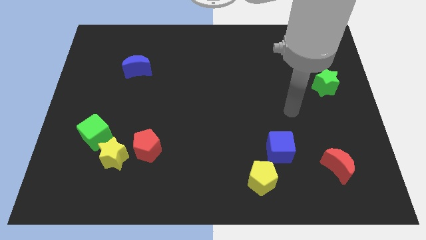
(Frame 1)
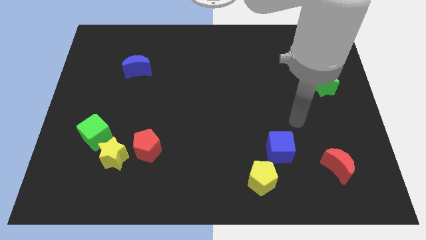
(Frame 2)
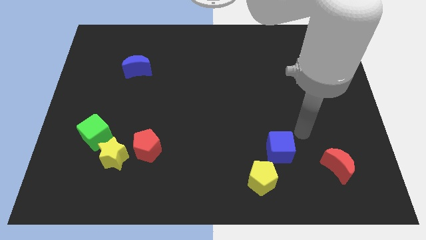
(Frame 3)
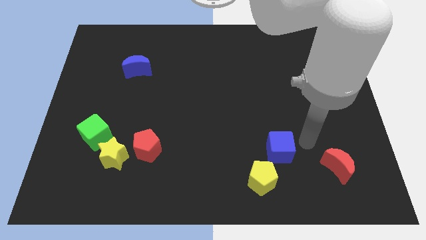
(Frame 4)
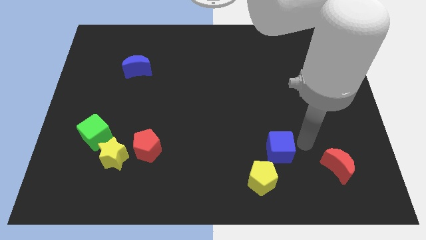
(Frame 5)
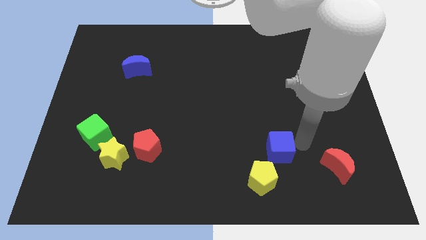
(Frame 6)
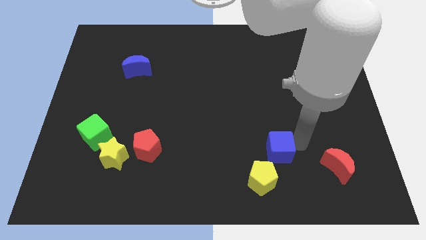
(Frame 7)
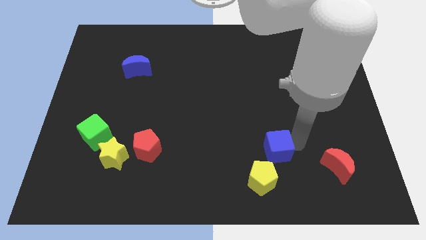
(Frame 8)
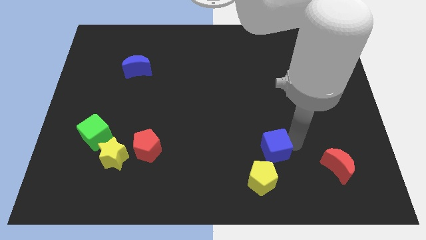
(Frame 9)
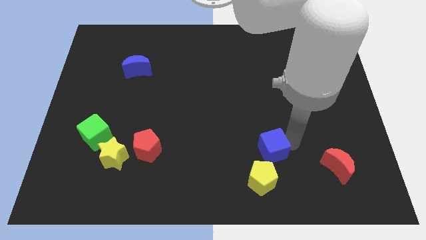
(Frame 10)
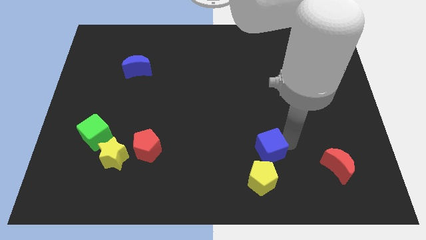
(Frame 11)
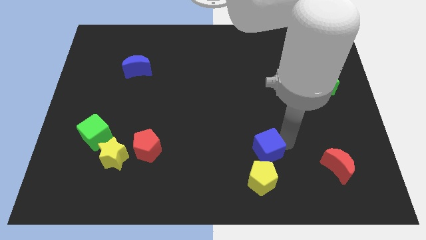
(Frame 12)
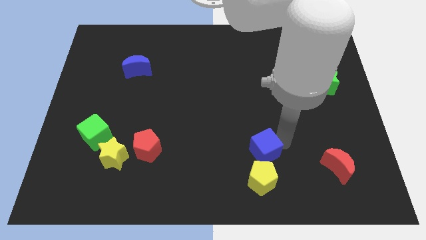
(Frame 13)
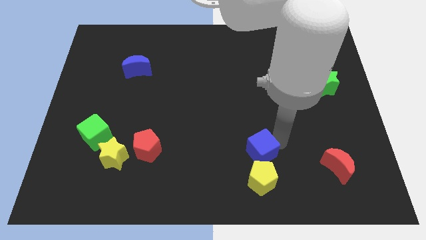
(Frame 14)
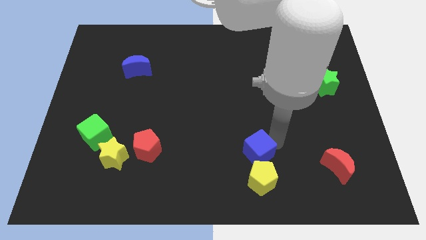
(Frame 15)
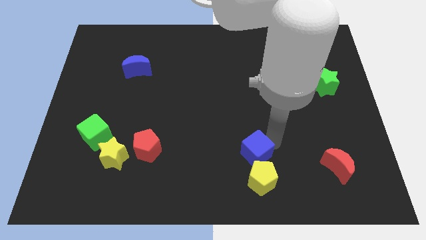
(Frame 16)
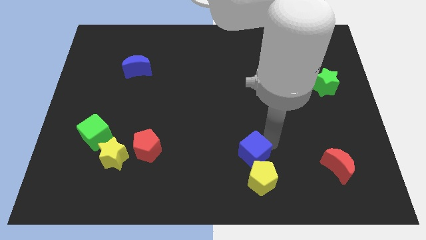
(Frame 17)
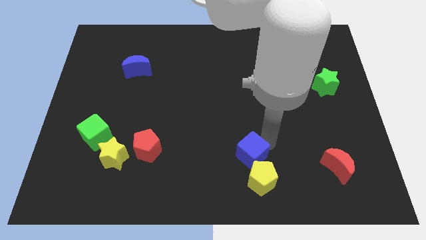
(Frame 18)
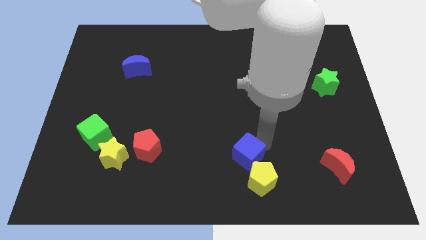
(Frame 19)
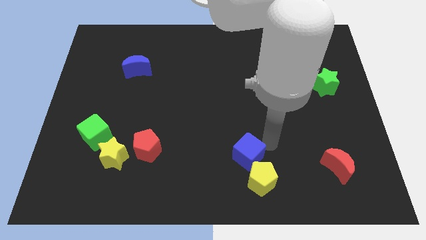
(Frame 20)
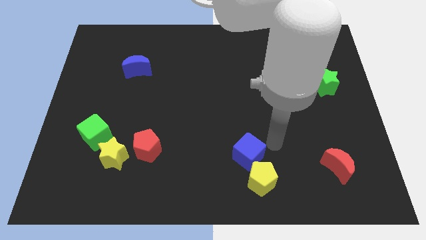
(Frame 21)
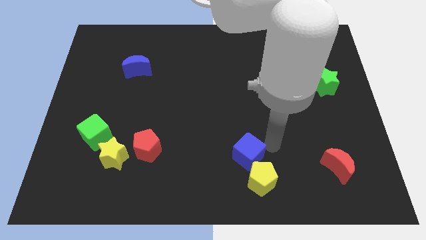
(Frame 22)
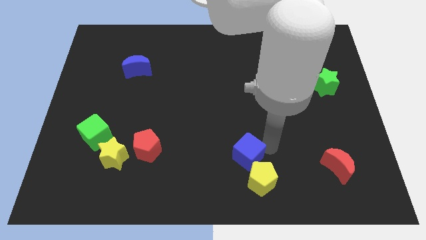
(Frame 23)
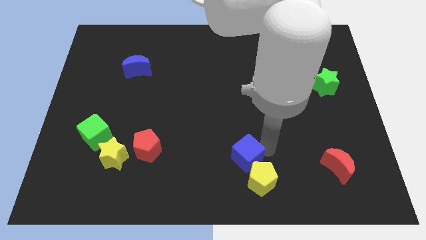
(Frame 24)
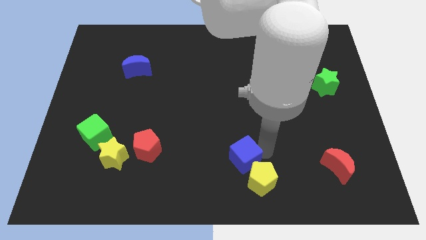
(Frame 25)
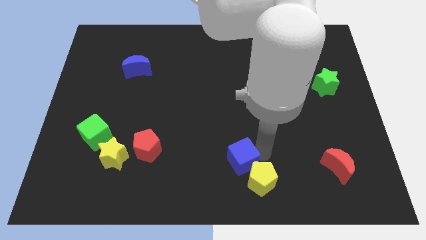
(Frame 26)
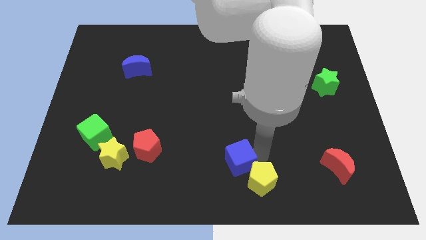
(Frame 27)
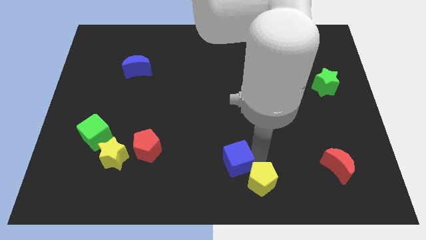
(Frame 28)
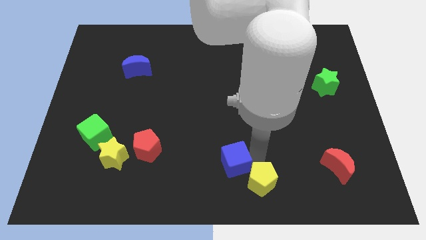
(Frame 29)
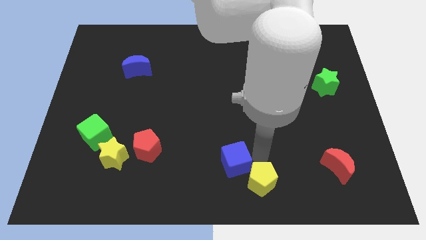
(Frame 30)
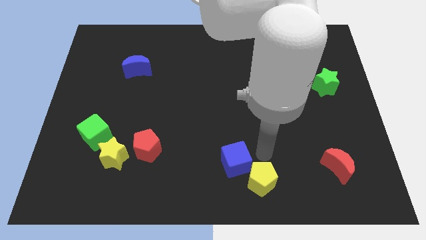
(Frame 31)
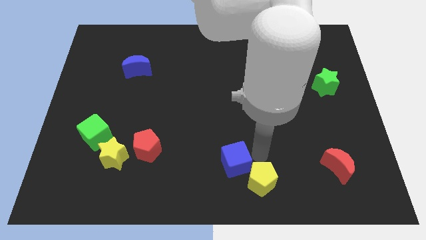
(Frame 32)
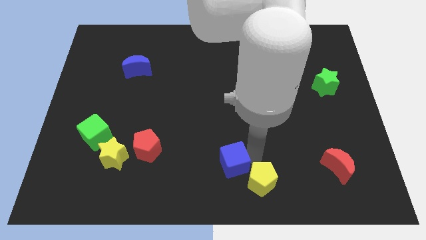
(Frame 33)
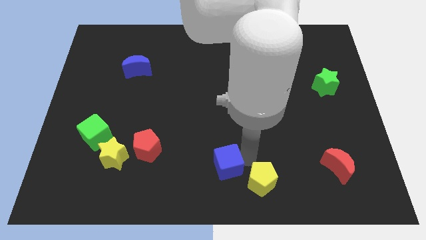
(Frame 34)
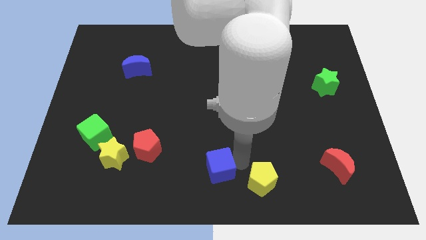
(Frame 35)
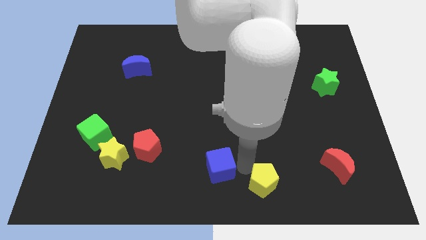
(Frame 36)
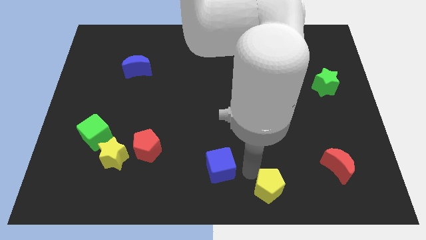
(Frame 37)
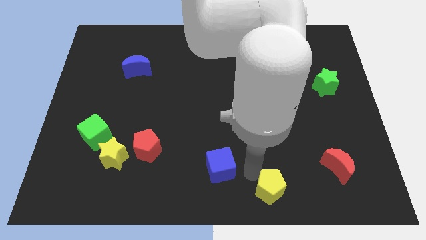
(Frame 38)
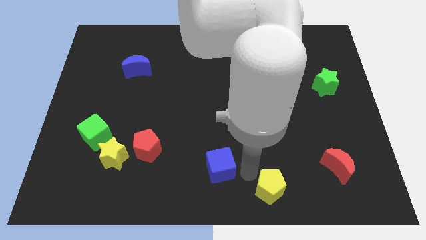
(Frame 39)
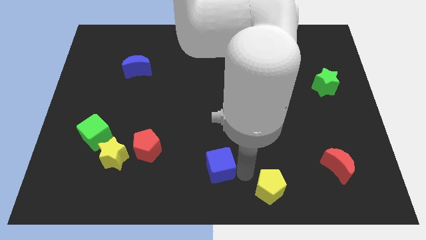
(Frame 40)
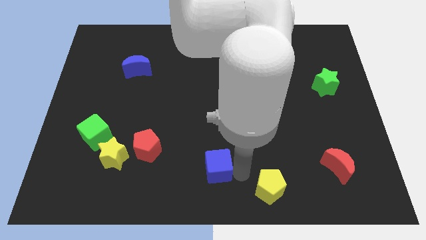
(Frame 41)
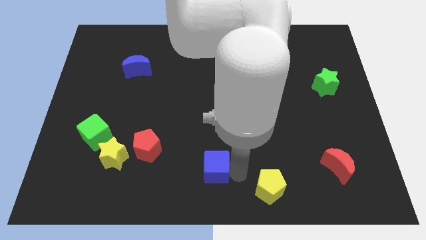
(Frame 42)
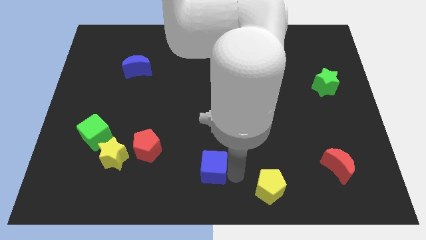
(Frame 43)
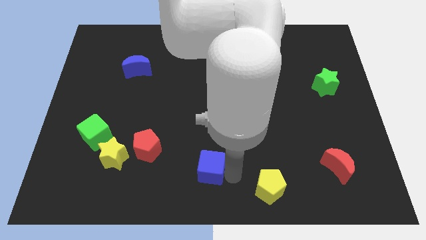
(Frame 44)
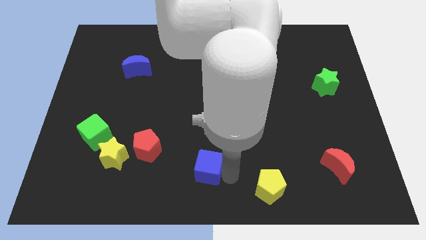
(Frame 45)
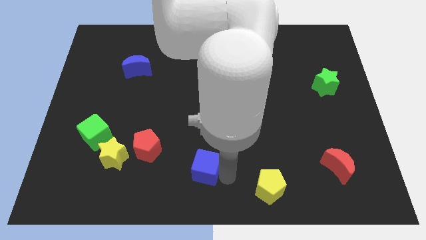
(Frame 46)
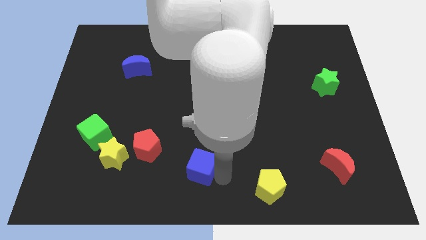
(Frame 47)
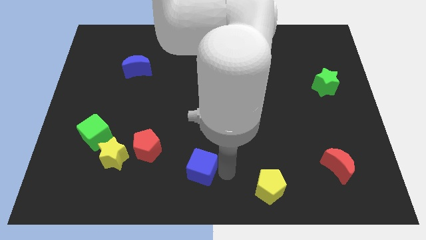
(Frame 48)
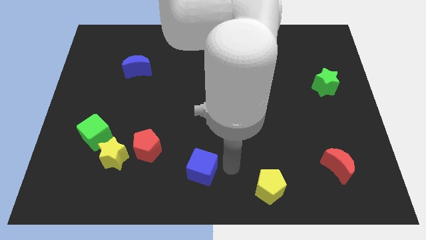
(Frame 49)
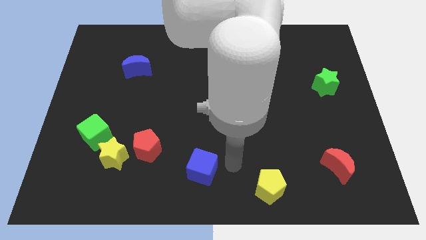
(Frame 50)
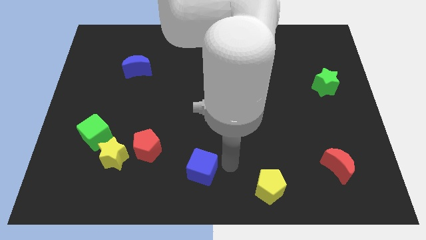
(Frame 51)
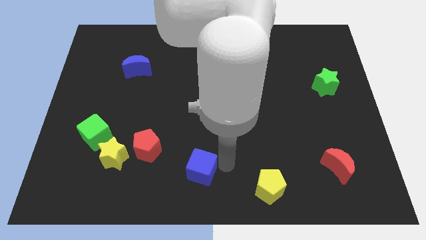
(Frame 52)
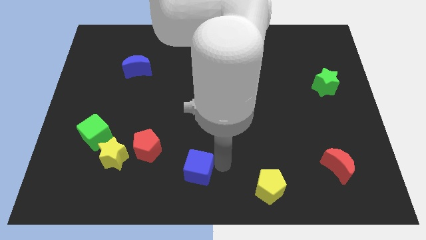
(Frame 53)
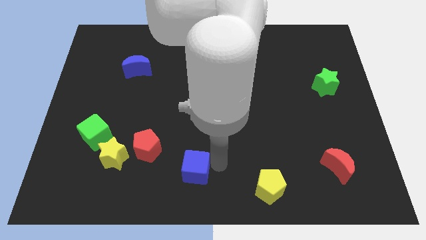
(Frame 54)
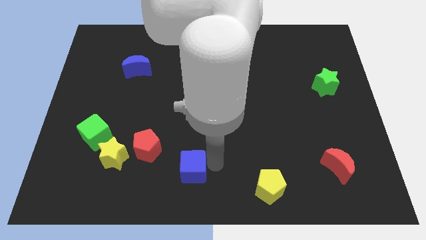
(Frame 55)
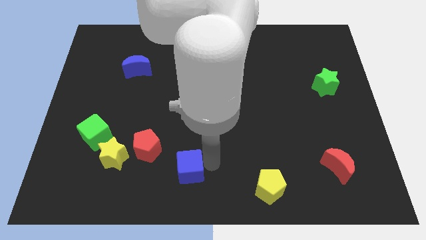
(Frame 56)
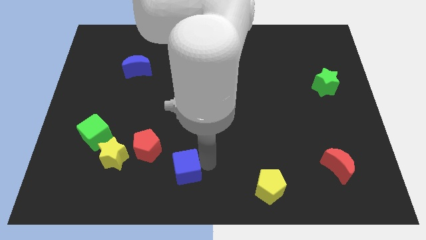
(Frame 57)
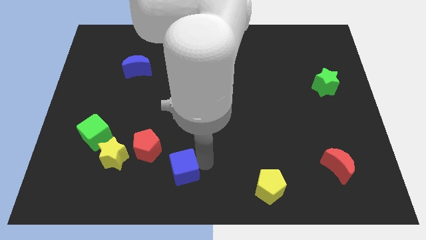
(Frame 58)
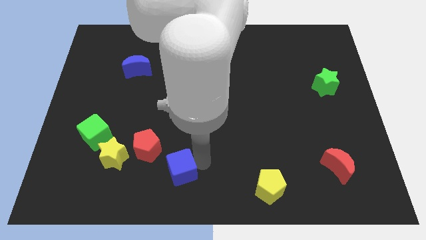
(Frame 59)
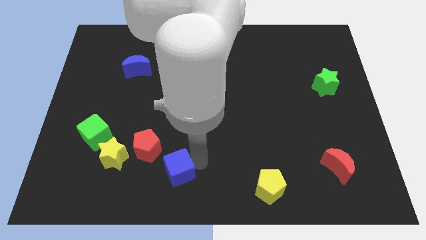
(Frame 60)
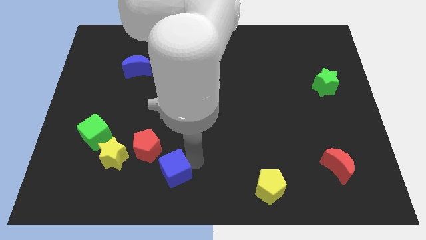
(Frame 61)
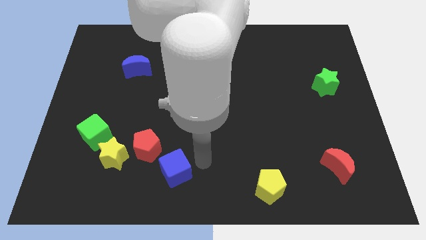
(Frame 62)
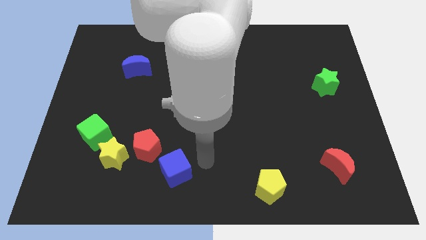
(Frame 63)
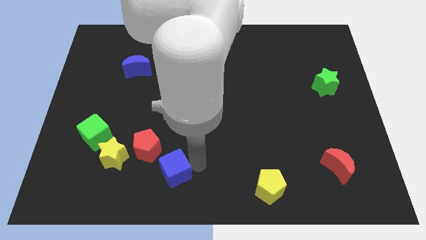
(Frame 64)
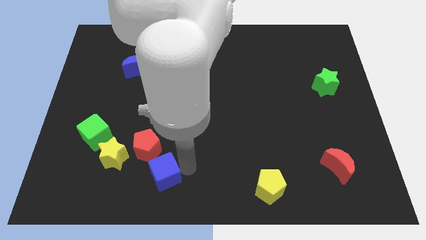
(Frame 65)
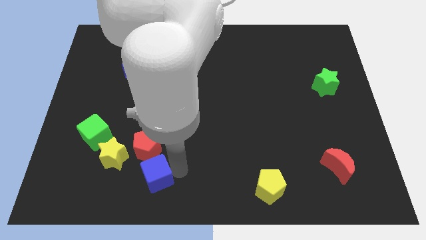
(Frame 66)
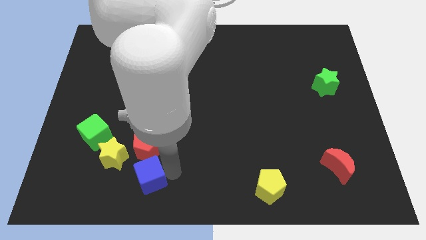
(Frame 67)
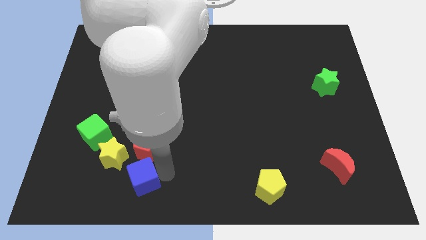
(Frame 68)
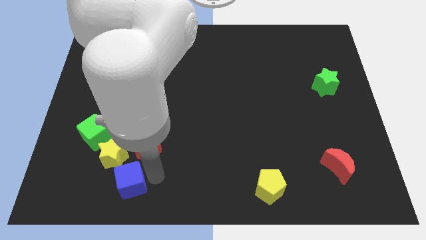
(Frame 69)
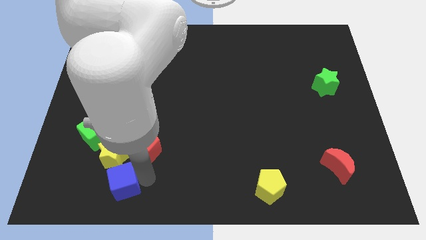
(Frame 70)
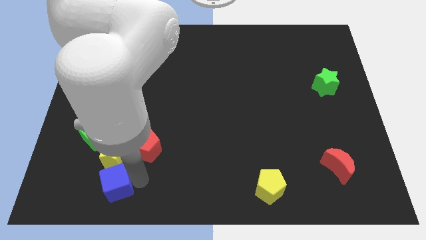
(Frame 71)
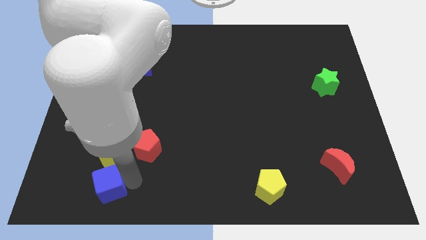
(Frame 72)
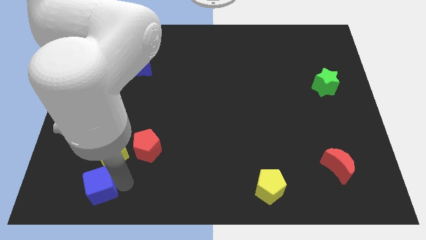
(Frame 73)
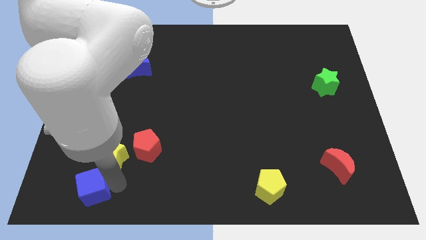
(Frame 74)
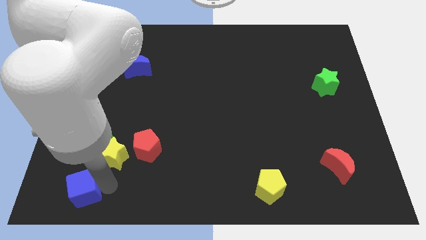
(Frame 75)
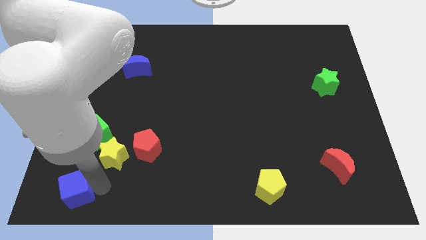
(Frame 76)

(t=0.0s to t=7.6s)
move the blue cube to the lower left corner
